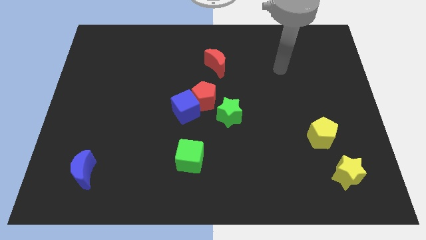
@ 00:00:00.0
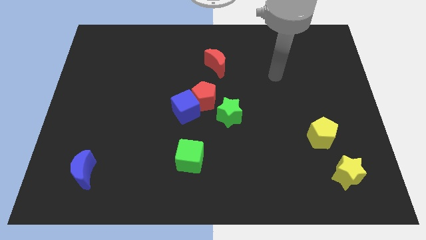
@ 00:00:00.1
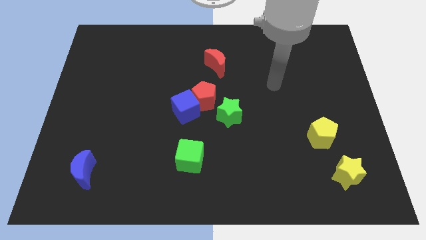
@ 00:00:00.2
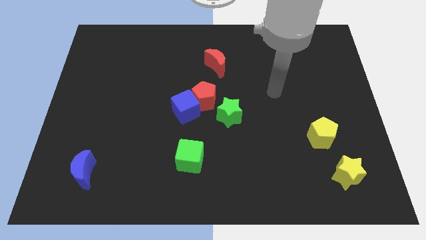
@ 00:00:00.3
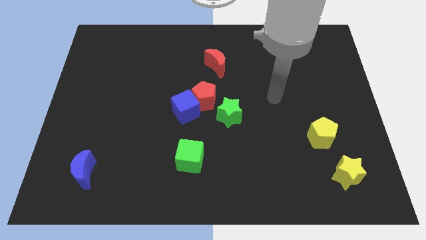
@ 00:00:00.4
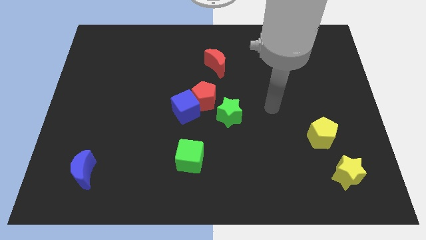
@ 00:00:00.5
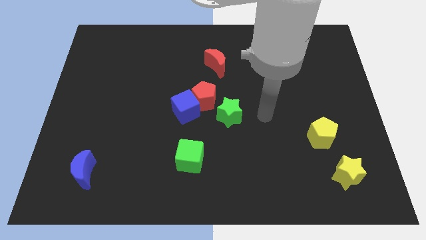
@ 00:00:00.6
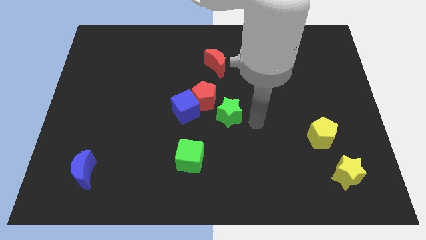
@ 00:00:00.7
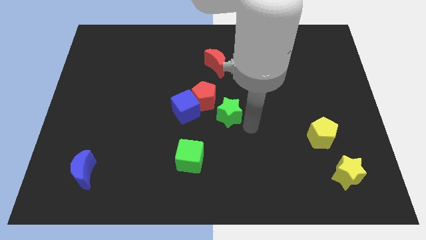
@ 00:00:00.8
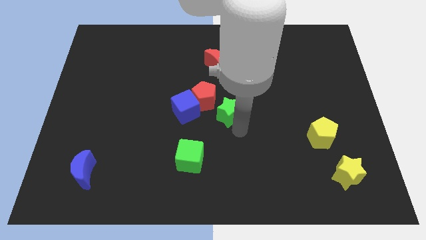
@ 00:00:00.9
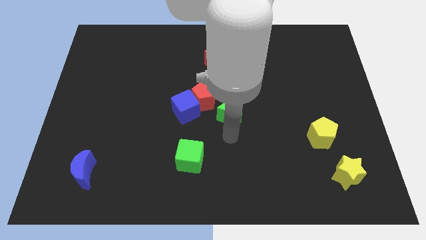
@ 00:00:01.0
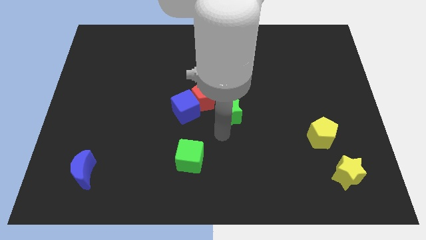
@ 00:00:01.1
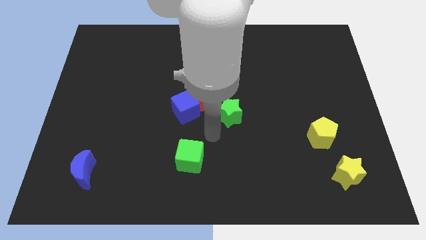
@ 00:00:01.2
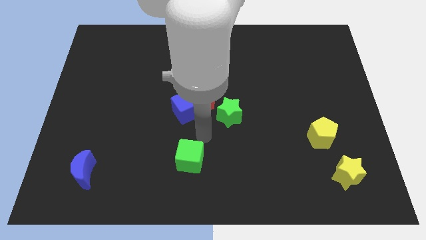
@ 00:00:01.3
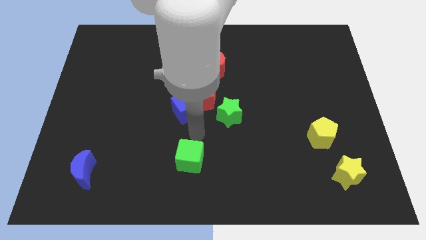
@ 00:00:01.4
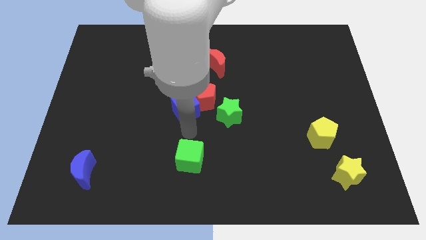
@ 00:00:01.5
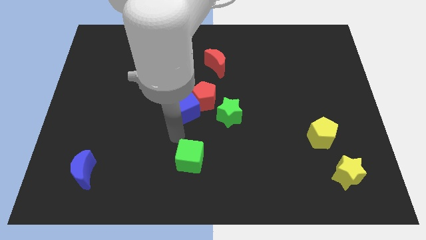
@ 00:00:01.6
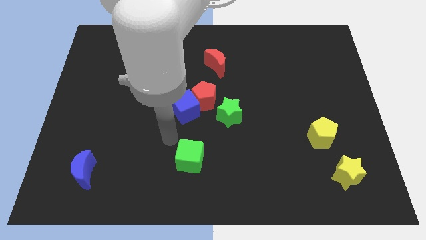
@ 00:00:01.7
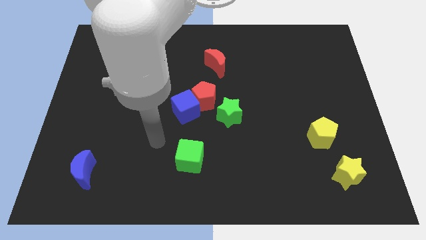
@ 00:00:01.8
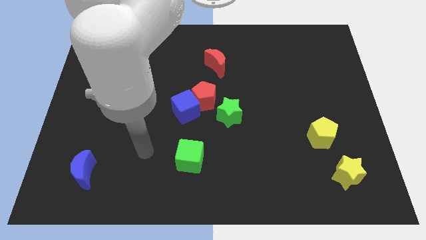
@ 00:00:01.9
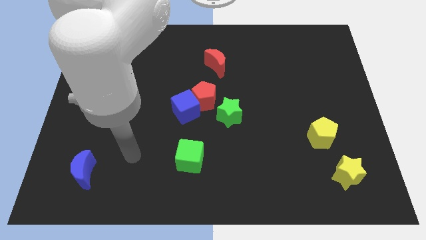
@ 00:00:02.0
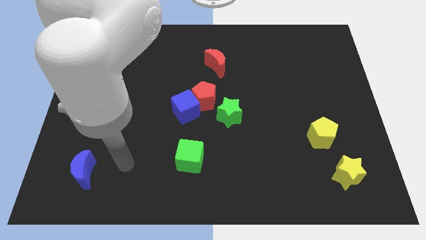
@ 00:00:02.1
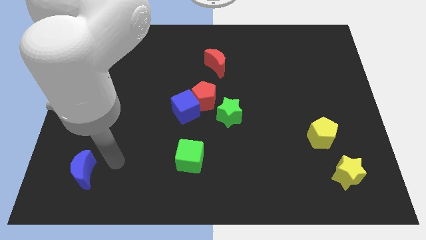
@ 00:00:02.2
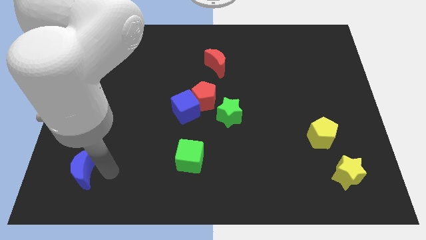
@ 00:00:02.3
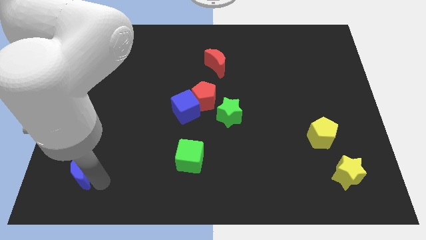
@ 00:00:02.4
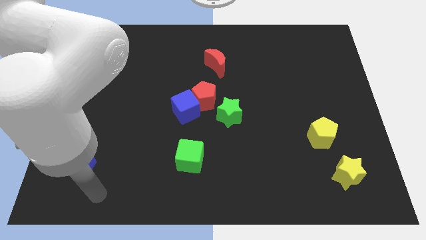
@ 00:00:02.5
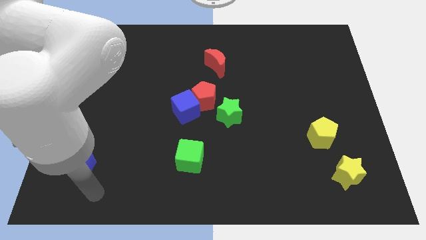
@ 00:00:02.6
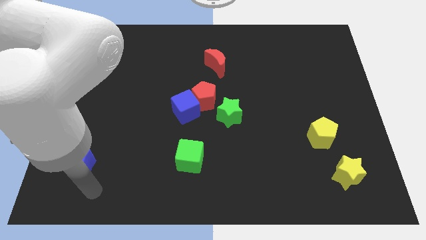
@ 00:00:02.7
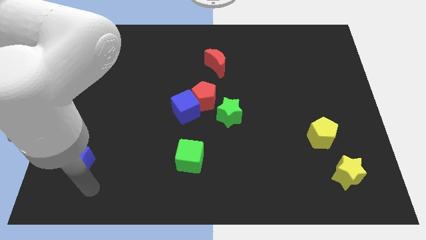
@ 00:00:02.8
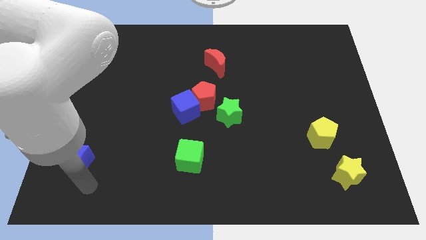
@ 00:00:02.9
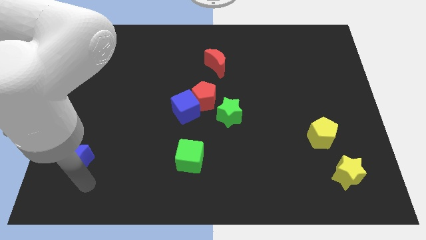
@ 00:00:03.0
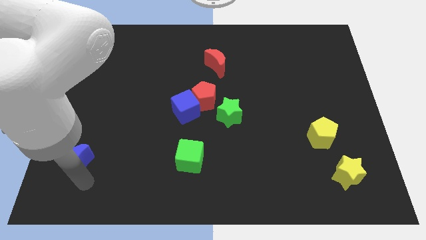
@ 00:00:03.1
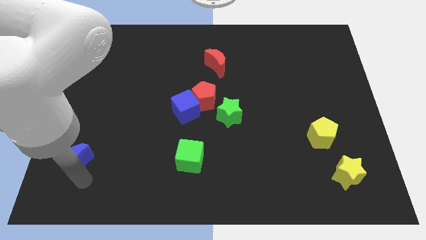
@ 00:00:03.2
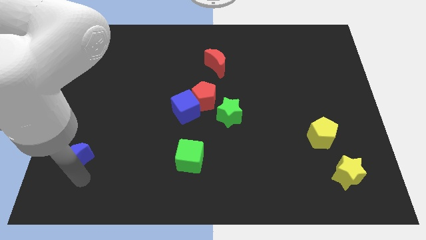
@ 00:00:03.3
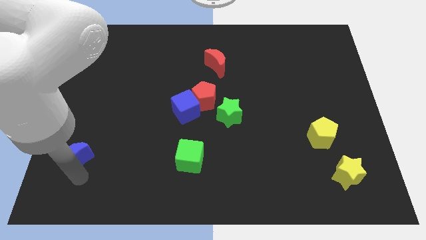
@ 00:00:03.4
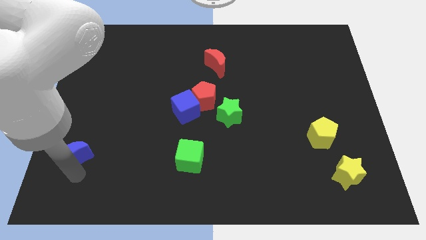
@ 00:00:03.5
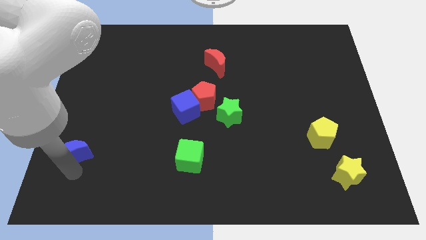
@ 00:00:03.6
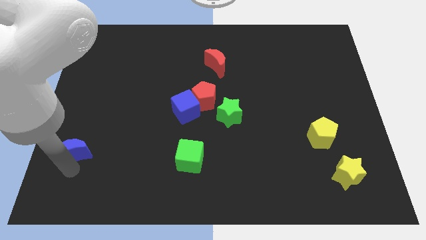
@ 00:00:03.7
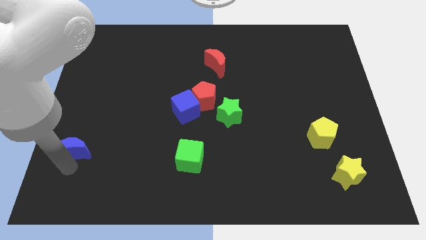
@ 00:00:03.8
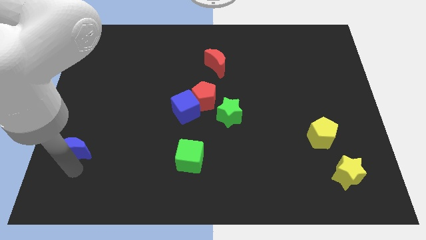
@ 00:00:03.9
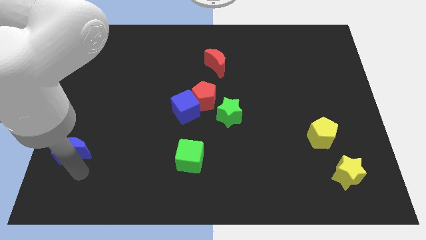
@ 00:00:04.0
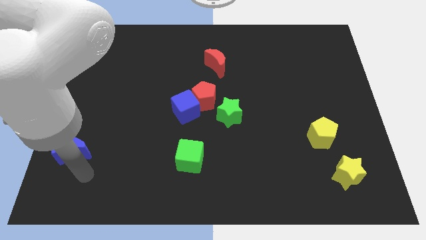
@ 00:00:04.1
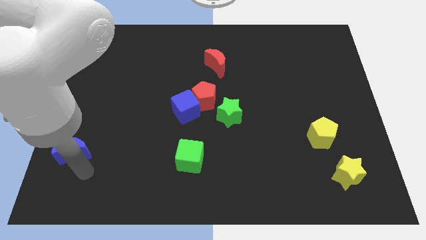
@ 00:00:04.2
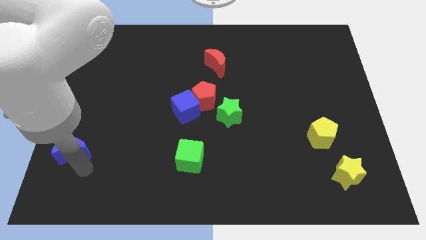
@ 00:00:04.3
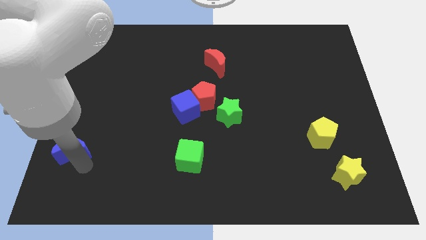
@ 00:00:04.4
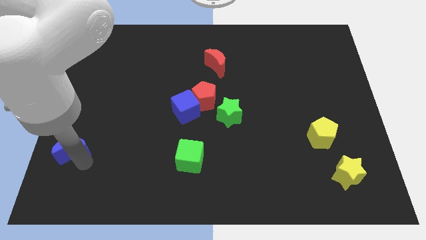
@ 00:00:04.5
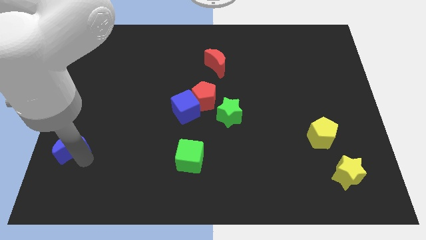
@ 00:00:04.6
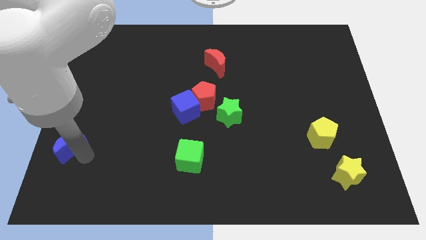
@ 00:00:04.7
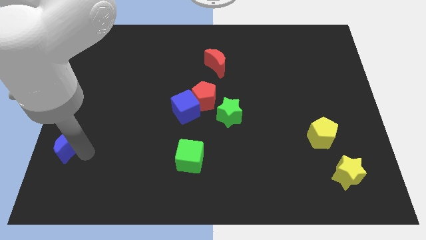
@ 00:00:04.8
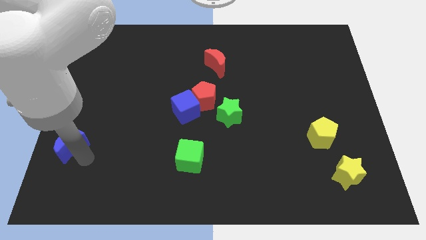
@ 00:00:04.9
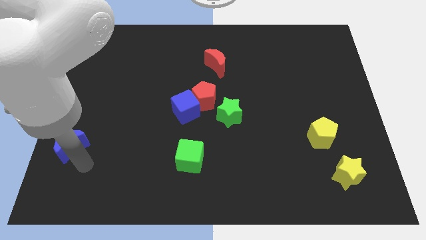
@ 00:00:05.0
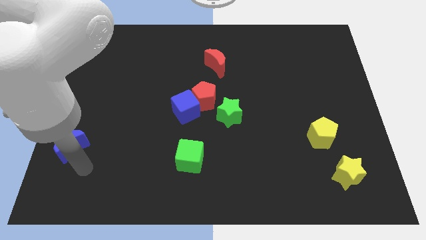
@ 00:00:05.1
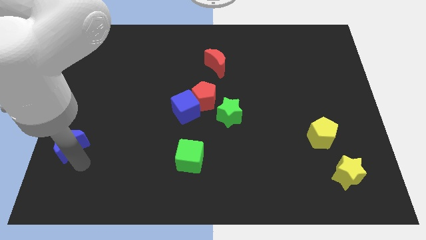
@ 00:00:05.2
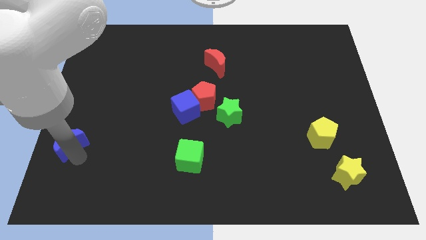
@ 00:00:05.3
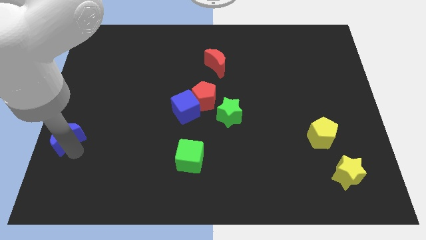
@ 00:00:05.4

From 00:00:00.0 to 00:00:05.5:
push the blue moon to the left side

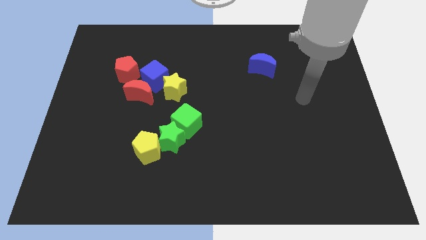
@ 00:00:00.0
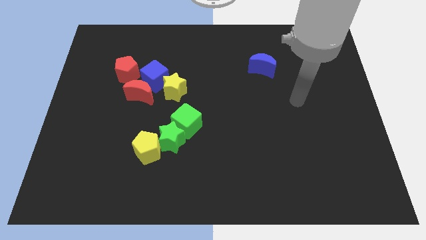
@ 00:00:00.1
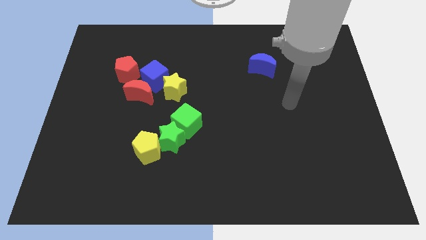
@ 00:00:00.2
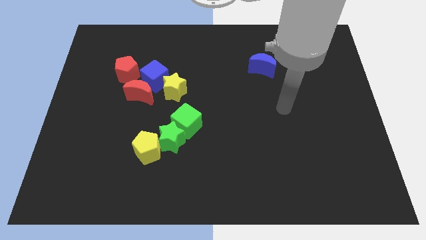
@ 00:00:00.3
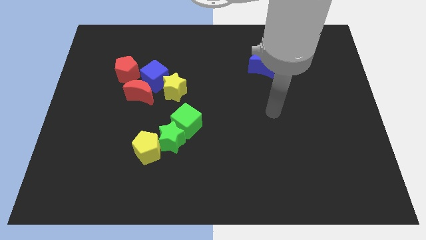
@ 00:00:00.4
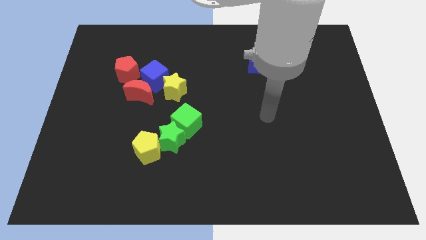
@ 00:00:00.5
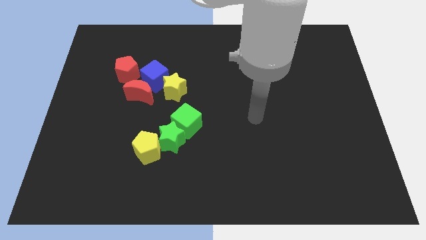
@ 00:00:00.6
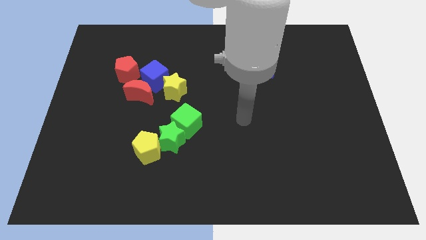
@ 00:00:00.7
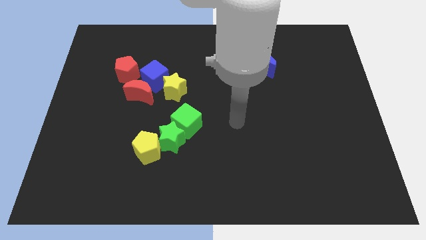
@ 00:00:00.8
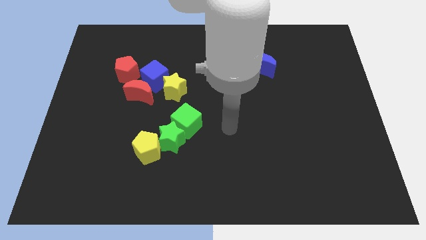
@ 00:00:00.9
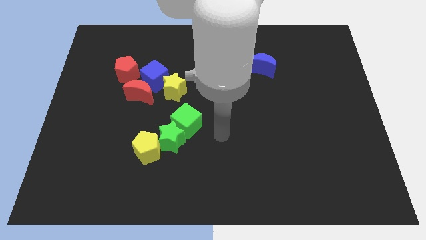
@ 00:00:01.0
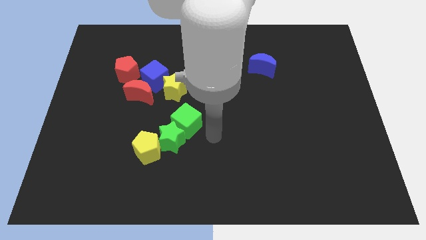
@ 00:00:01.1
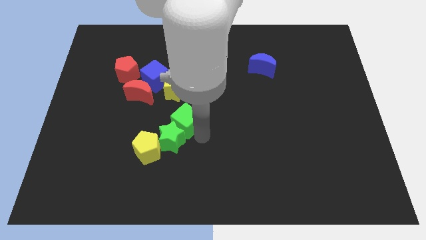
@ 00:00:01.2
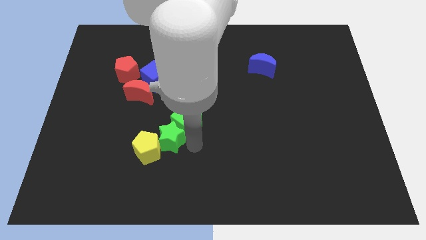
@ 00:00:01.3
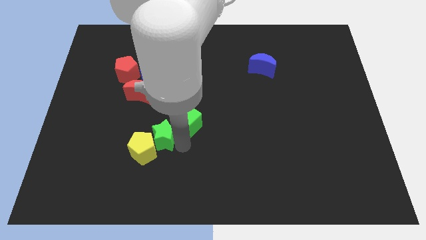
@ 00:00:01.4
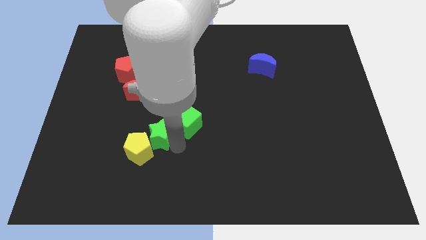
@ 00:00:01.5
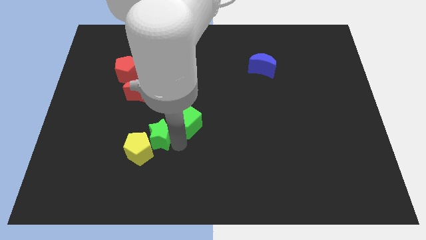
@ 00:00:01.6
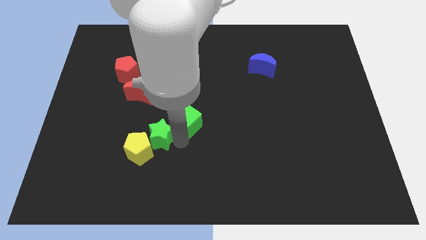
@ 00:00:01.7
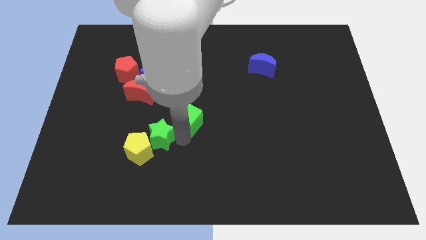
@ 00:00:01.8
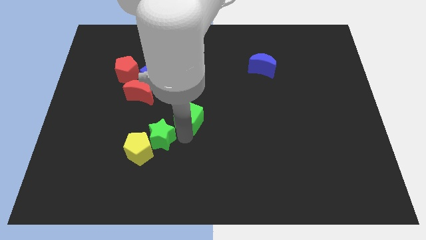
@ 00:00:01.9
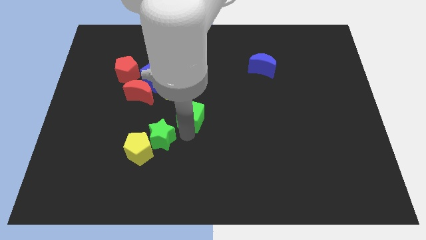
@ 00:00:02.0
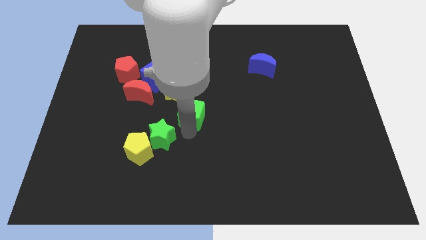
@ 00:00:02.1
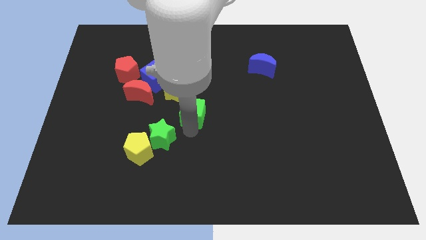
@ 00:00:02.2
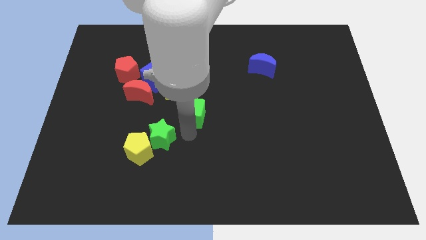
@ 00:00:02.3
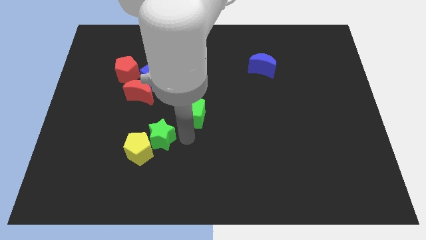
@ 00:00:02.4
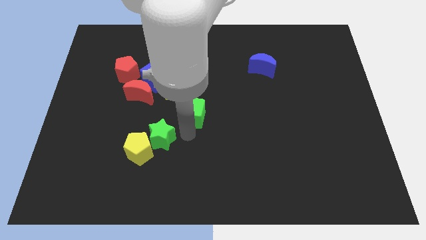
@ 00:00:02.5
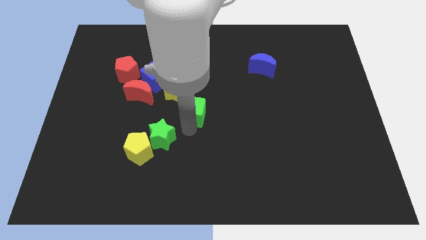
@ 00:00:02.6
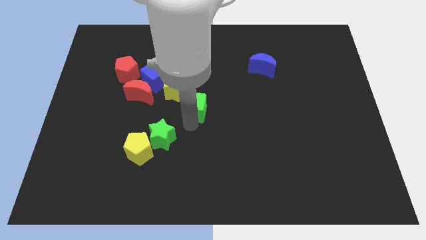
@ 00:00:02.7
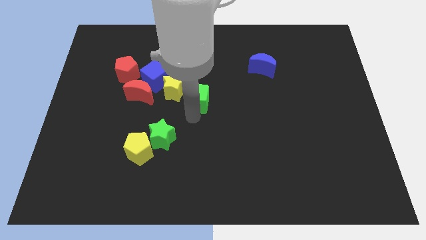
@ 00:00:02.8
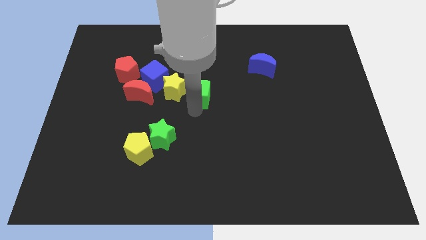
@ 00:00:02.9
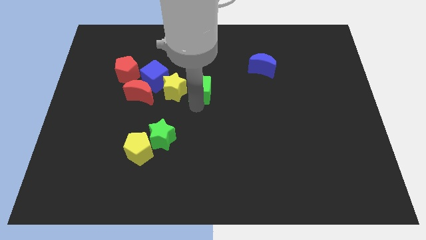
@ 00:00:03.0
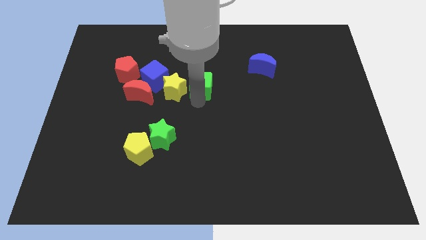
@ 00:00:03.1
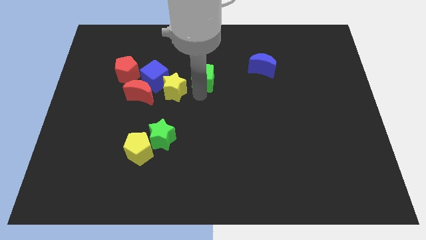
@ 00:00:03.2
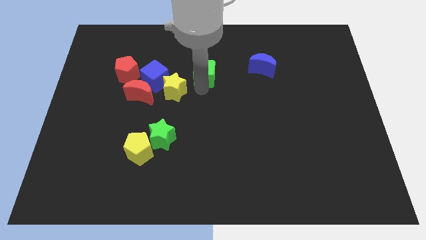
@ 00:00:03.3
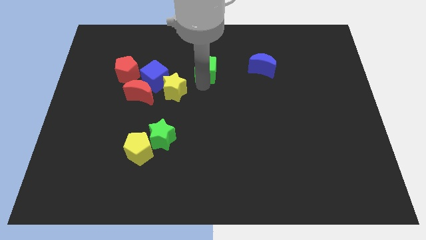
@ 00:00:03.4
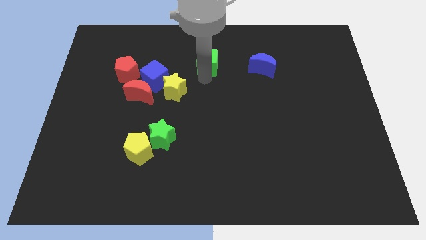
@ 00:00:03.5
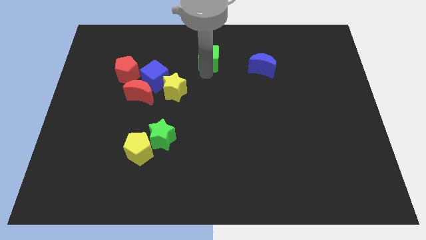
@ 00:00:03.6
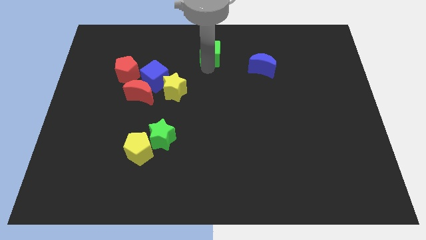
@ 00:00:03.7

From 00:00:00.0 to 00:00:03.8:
put the green cube to the top side
